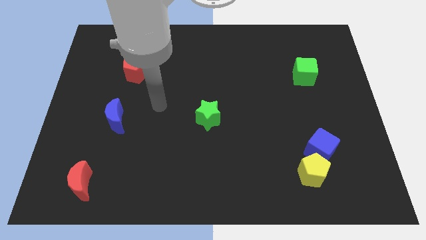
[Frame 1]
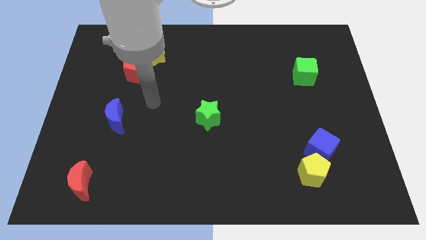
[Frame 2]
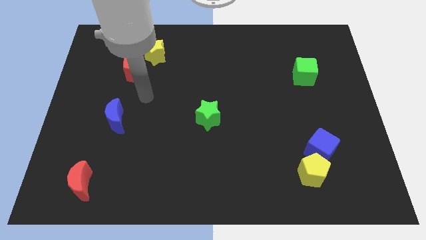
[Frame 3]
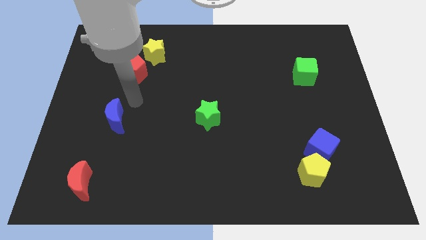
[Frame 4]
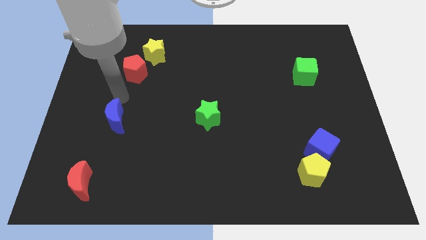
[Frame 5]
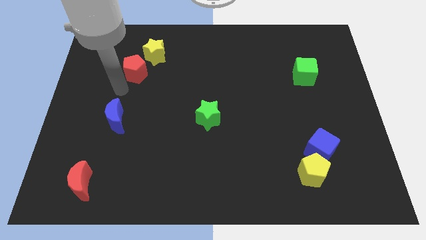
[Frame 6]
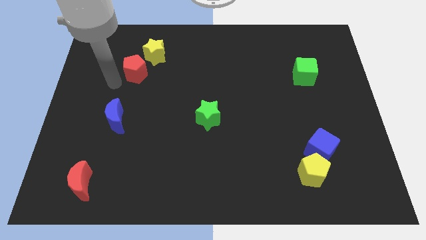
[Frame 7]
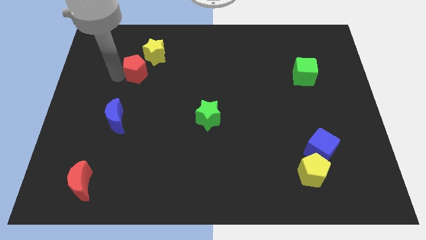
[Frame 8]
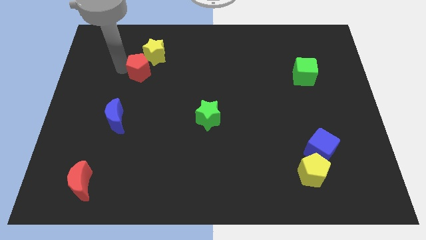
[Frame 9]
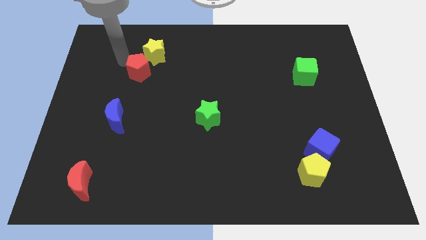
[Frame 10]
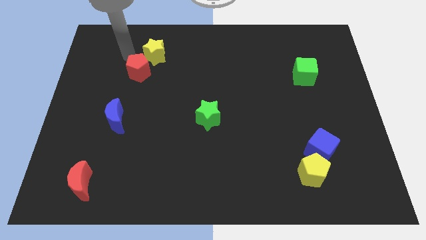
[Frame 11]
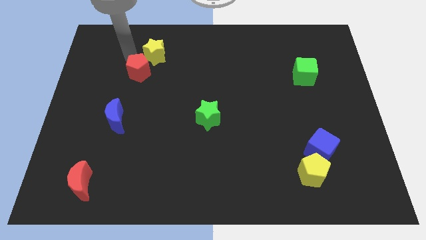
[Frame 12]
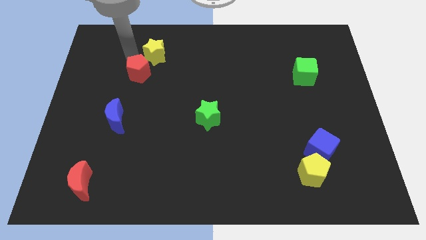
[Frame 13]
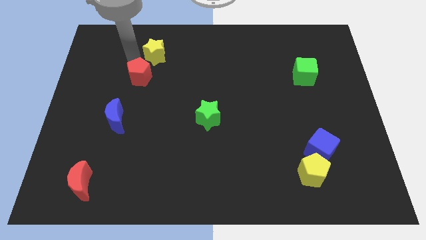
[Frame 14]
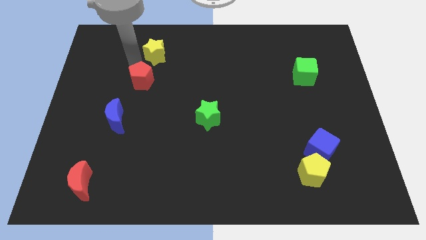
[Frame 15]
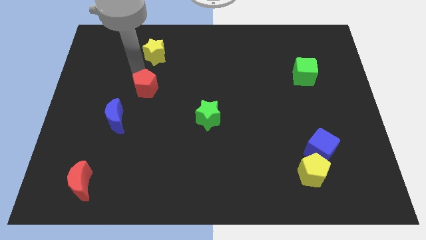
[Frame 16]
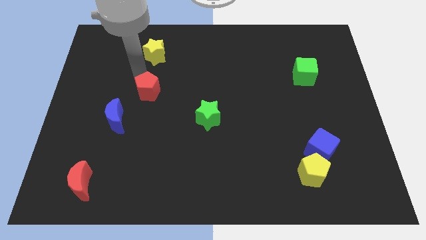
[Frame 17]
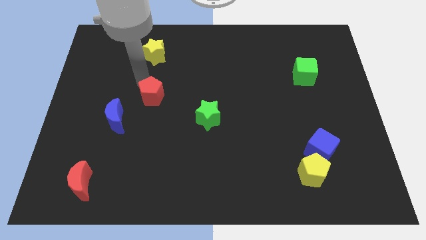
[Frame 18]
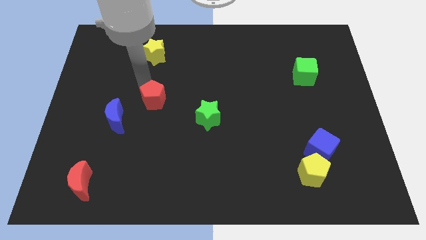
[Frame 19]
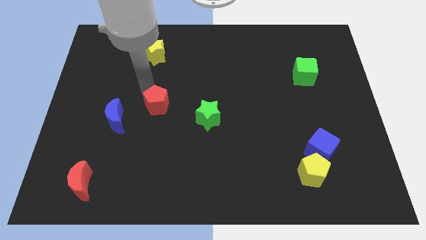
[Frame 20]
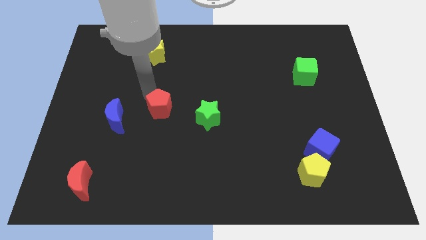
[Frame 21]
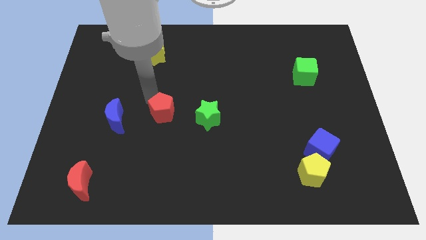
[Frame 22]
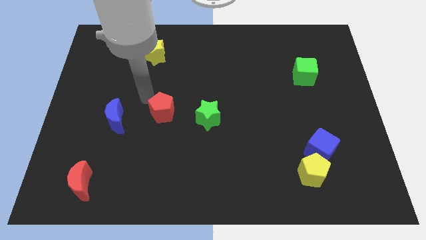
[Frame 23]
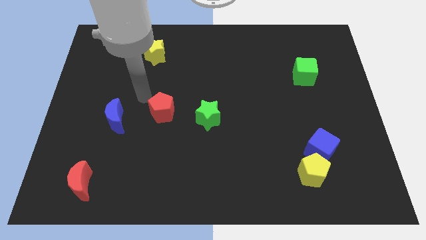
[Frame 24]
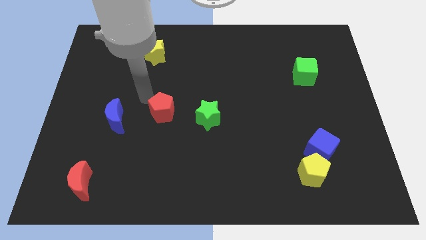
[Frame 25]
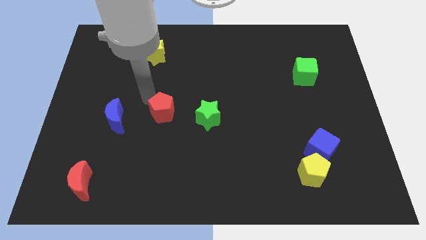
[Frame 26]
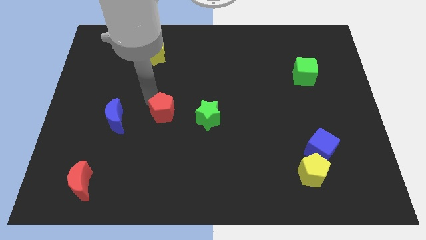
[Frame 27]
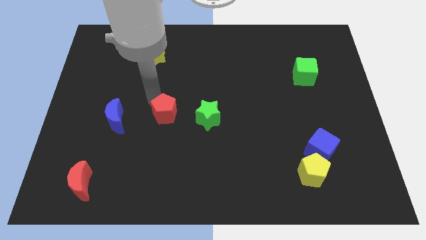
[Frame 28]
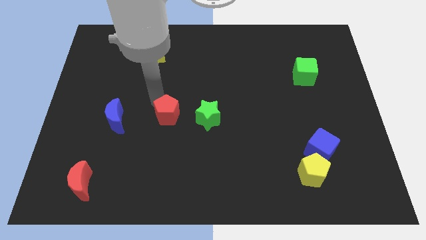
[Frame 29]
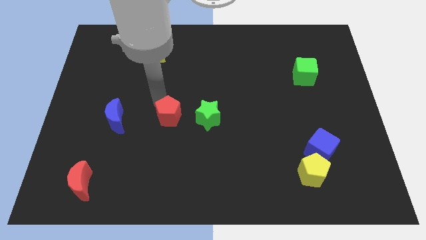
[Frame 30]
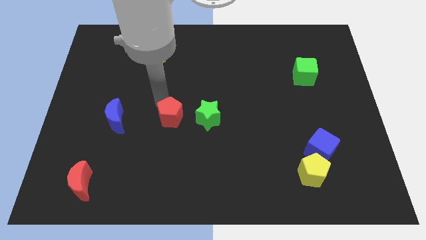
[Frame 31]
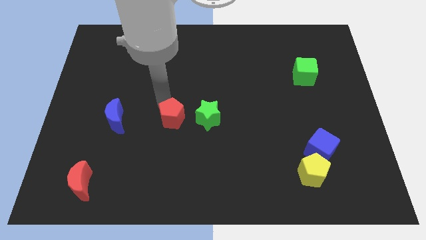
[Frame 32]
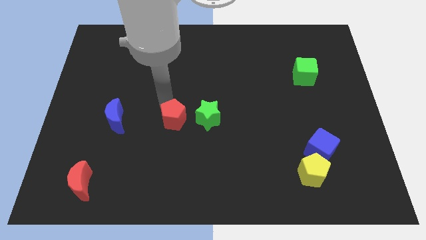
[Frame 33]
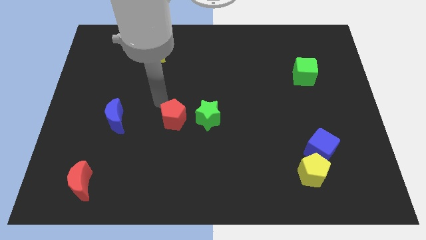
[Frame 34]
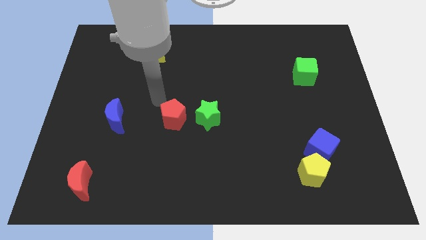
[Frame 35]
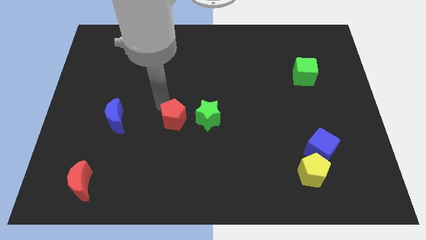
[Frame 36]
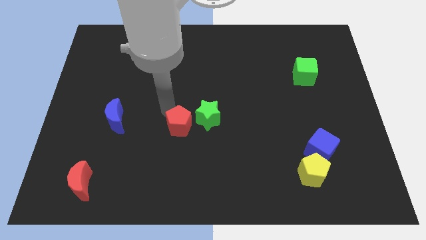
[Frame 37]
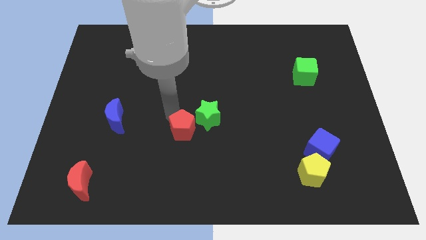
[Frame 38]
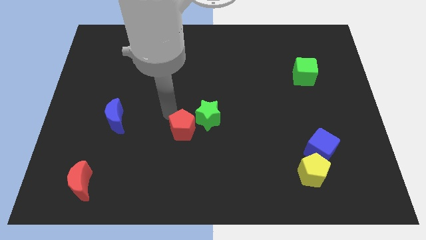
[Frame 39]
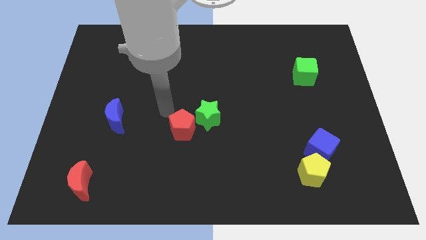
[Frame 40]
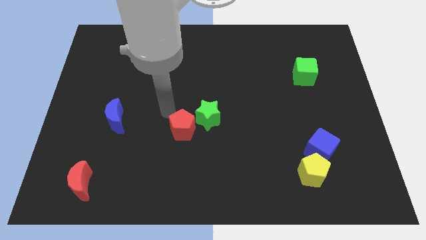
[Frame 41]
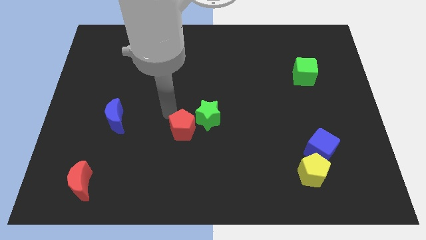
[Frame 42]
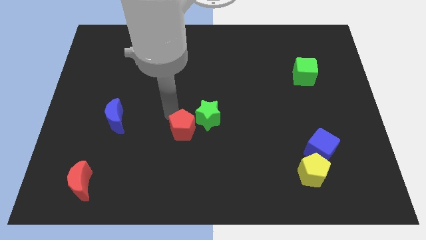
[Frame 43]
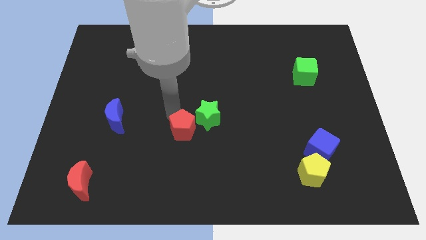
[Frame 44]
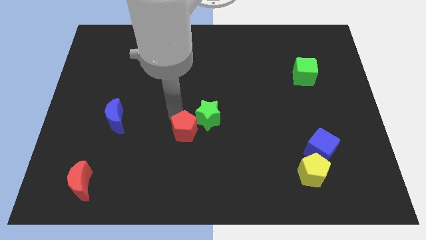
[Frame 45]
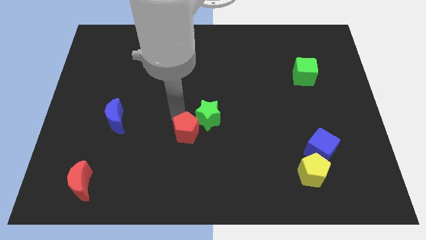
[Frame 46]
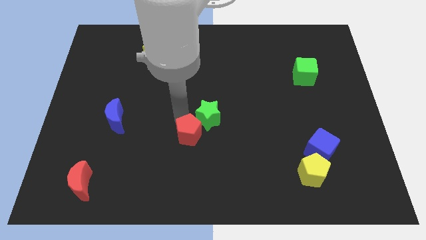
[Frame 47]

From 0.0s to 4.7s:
slide the red pentagon to the bottom side of the green star

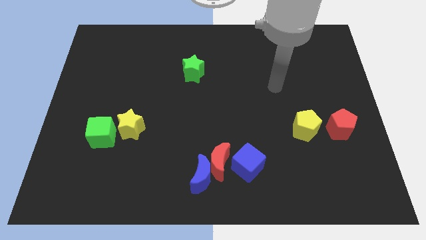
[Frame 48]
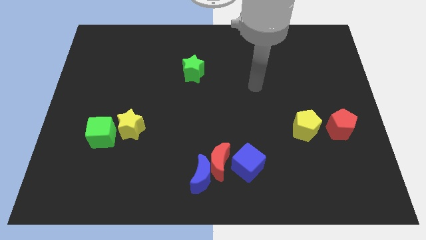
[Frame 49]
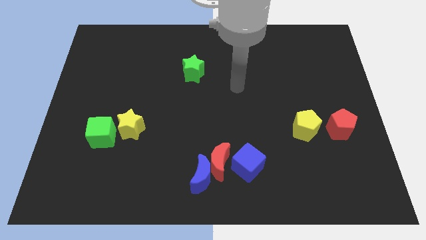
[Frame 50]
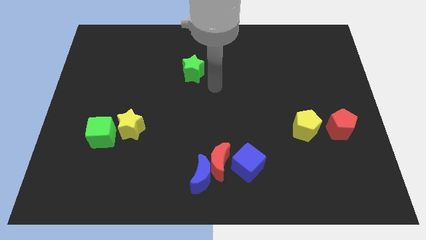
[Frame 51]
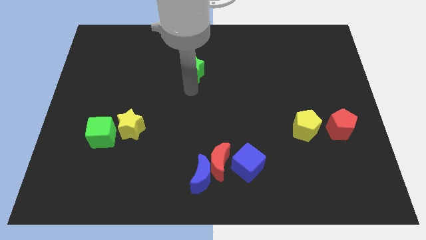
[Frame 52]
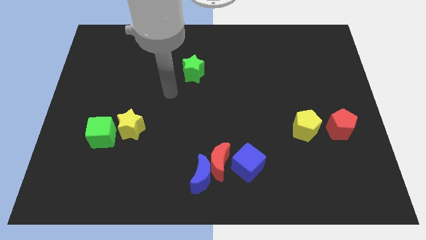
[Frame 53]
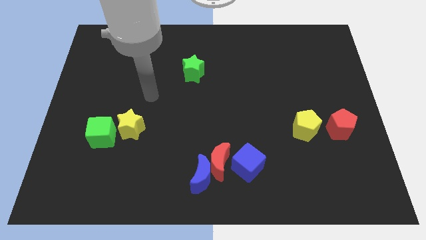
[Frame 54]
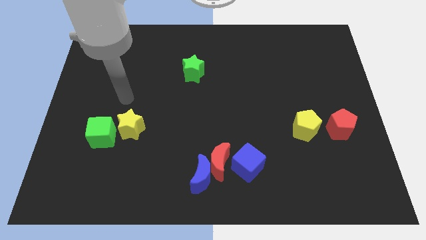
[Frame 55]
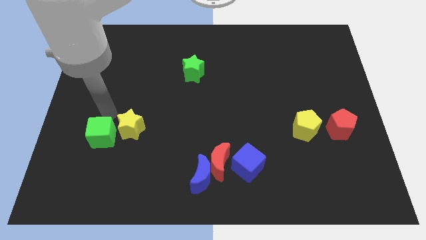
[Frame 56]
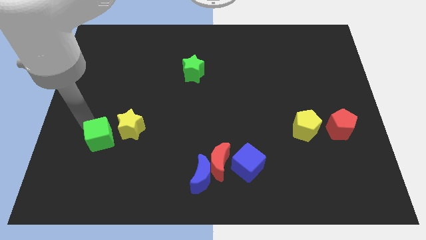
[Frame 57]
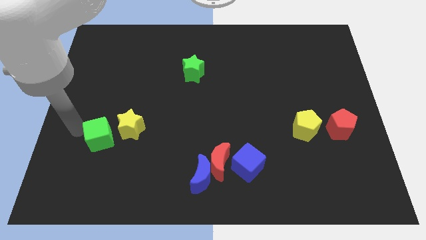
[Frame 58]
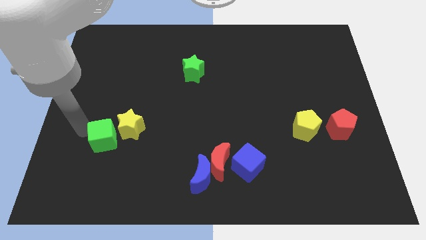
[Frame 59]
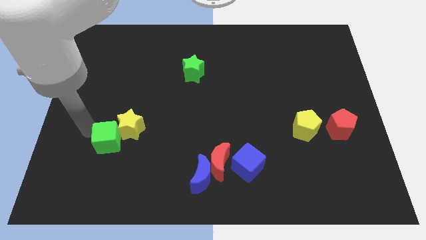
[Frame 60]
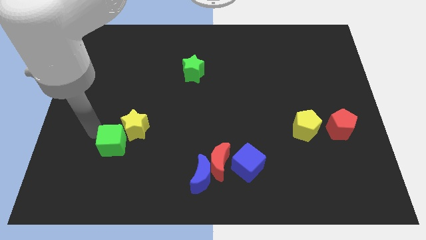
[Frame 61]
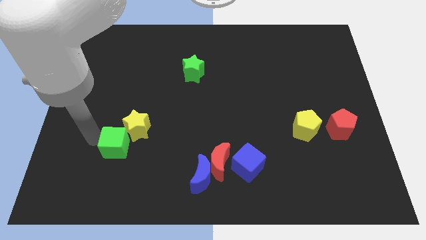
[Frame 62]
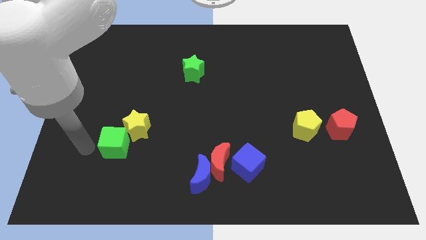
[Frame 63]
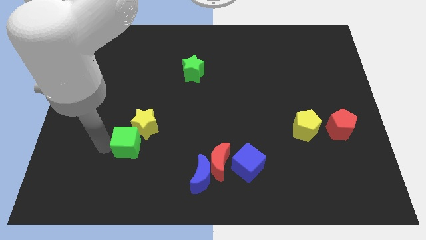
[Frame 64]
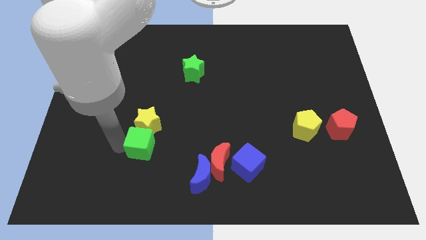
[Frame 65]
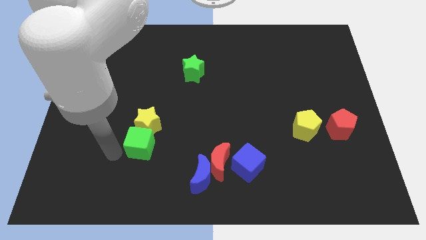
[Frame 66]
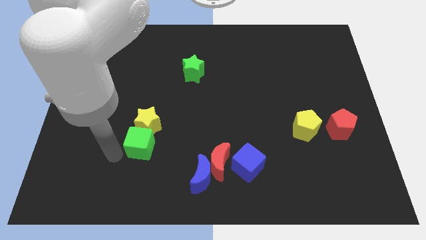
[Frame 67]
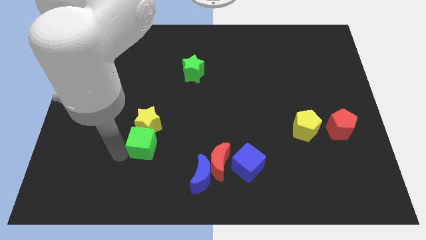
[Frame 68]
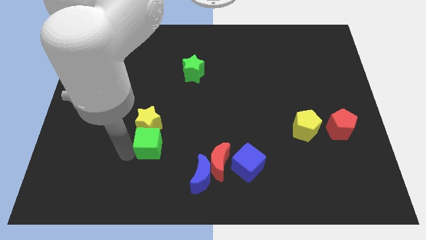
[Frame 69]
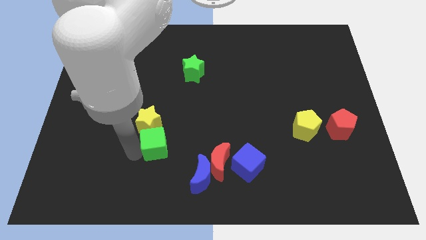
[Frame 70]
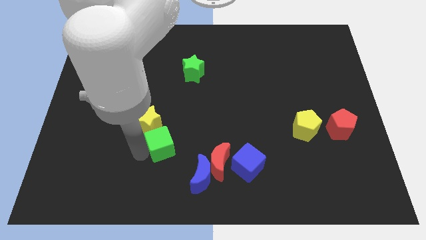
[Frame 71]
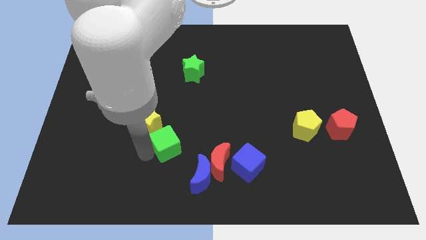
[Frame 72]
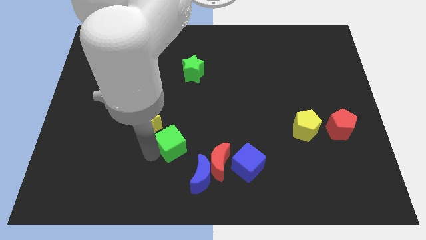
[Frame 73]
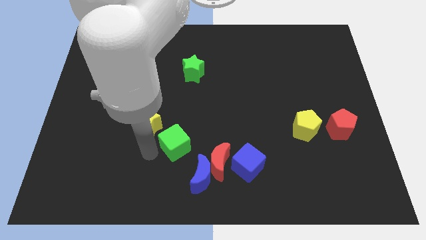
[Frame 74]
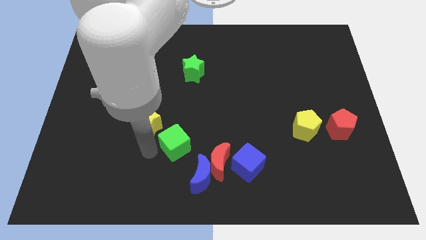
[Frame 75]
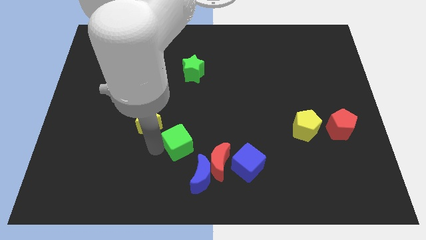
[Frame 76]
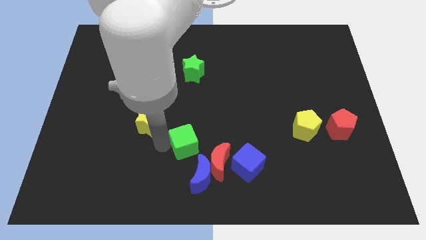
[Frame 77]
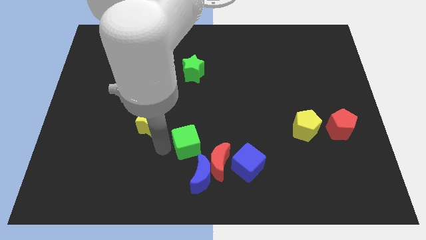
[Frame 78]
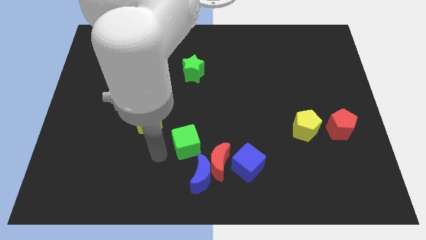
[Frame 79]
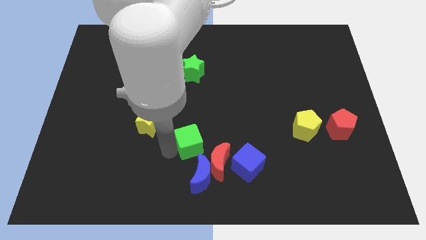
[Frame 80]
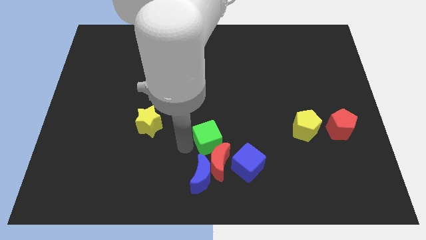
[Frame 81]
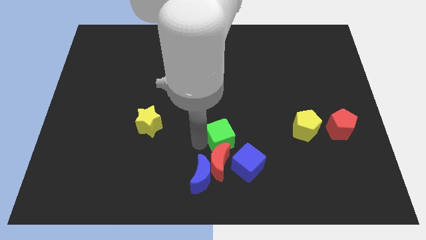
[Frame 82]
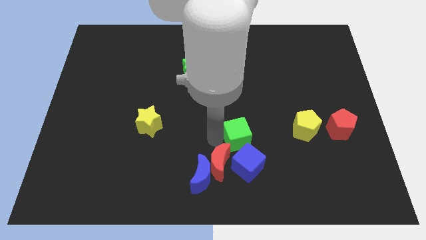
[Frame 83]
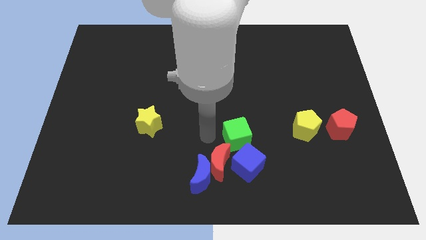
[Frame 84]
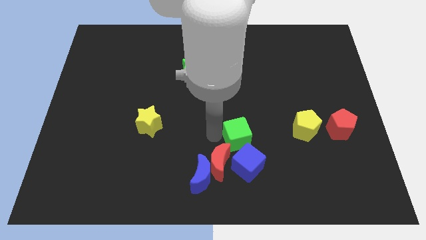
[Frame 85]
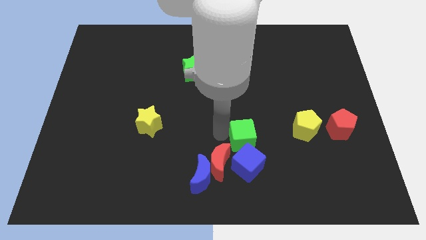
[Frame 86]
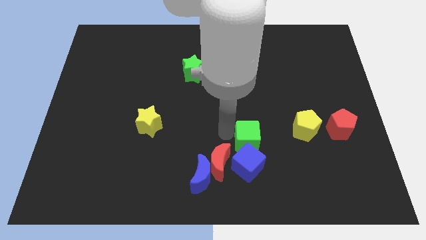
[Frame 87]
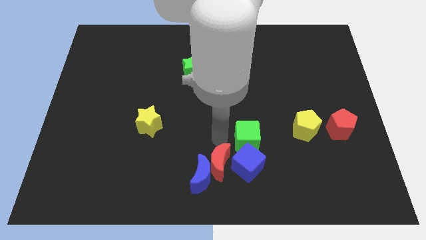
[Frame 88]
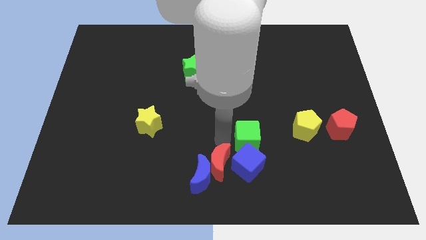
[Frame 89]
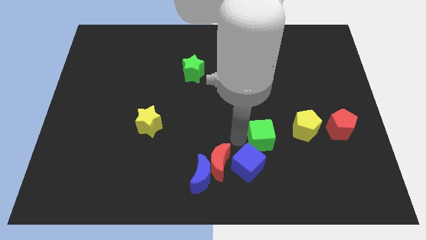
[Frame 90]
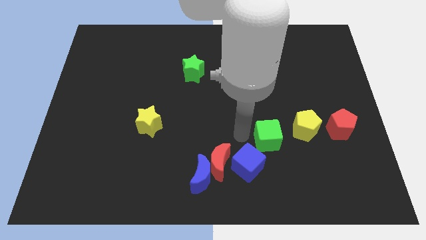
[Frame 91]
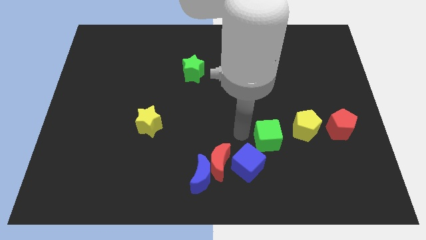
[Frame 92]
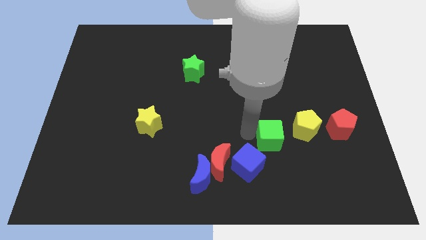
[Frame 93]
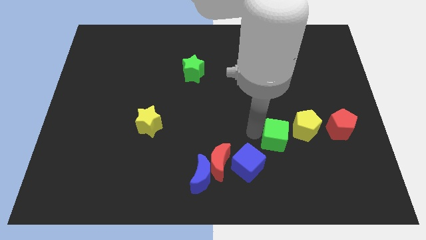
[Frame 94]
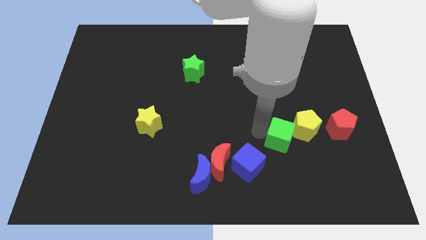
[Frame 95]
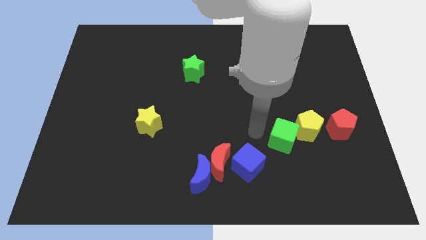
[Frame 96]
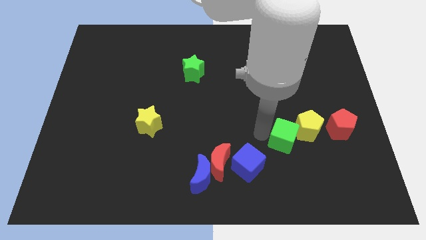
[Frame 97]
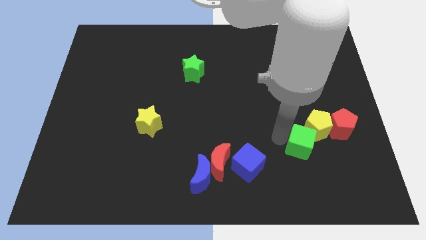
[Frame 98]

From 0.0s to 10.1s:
slide the green cube to the bottom left side of the red pentagon
